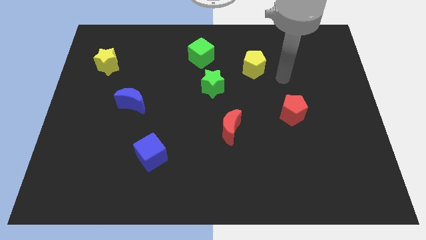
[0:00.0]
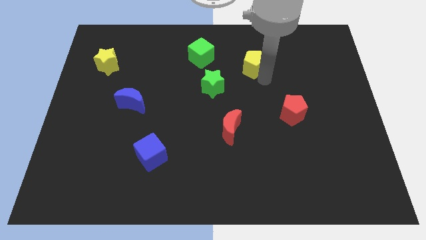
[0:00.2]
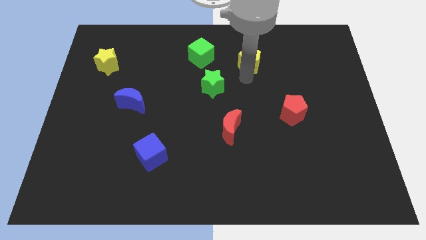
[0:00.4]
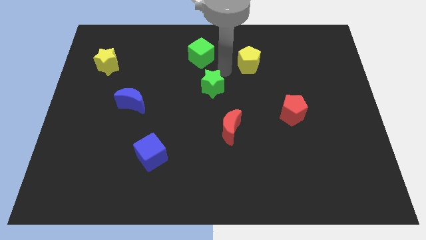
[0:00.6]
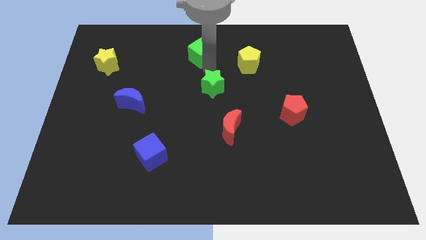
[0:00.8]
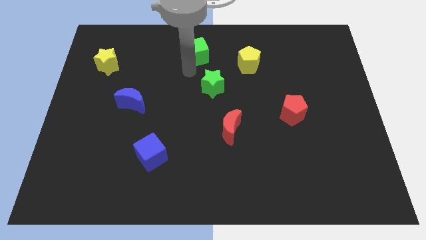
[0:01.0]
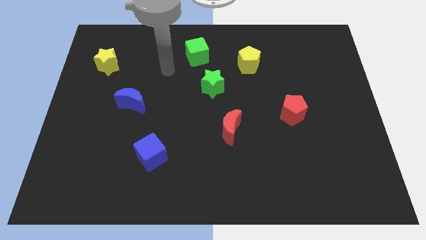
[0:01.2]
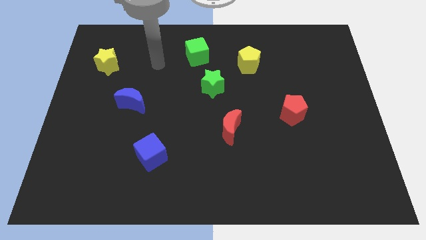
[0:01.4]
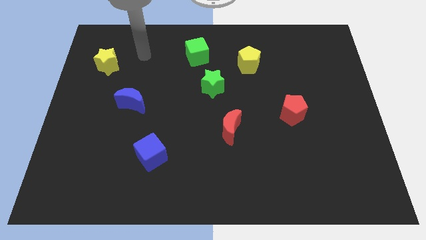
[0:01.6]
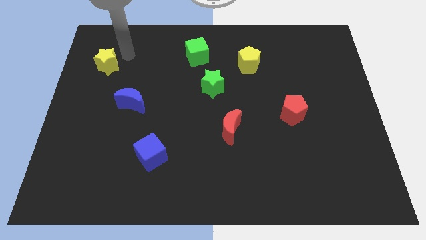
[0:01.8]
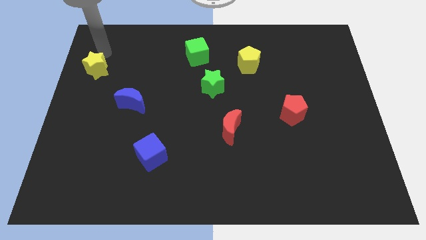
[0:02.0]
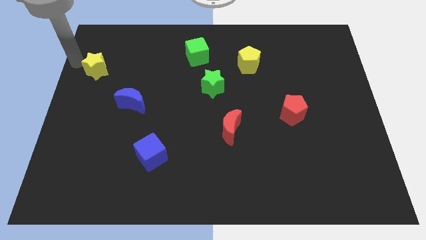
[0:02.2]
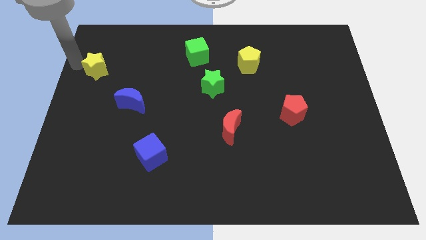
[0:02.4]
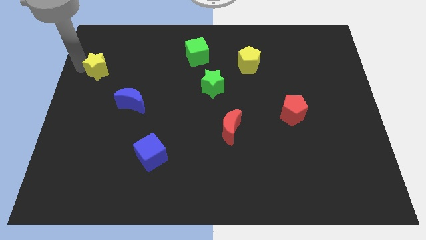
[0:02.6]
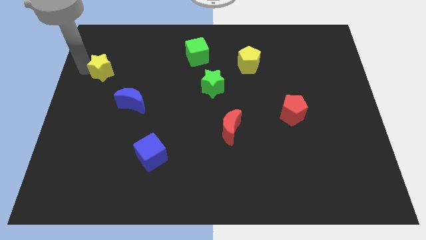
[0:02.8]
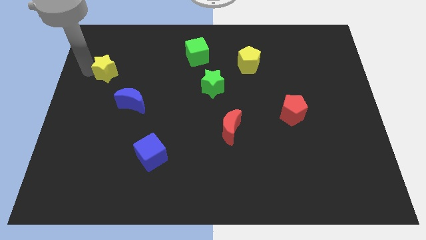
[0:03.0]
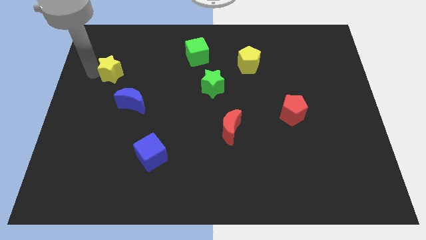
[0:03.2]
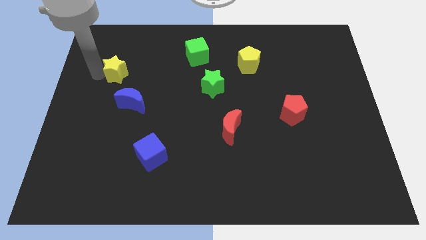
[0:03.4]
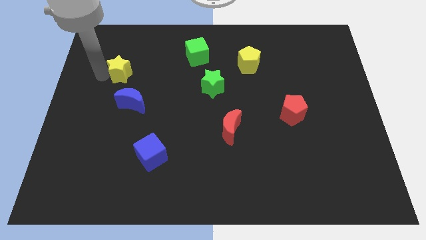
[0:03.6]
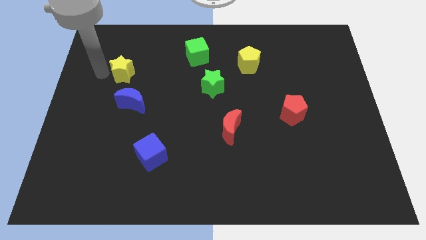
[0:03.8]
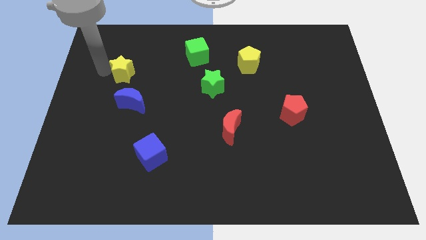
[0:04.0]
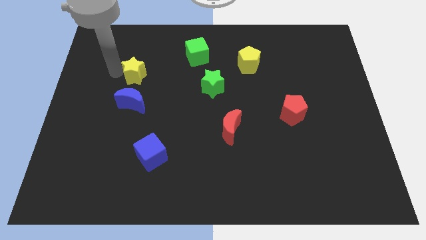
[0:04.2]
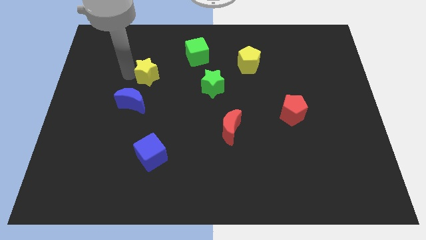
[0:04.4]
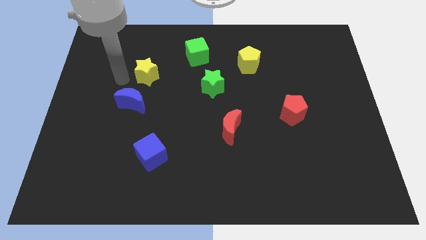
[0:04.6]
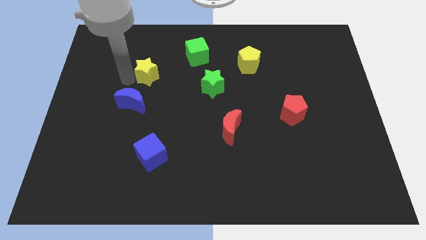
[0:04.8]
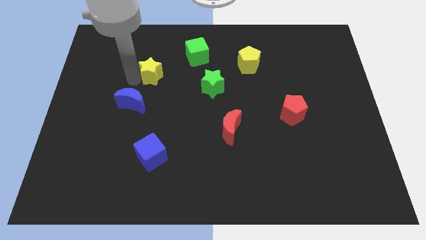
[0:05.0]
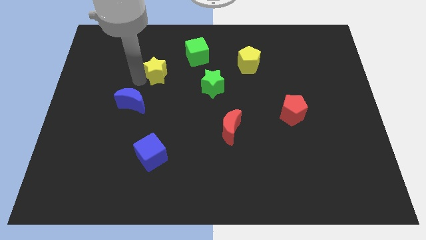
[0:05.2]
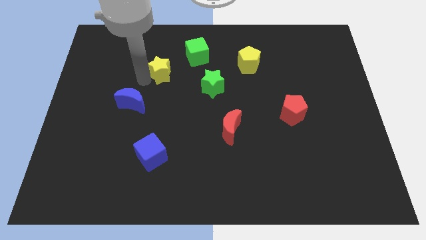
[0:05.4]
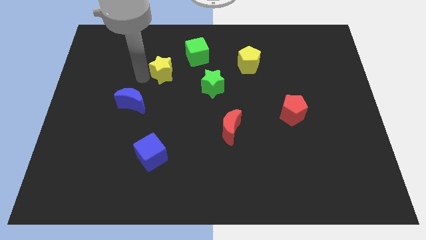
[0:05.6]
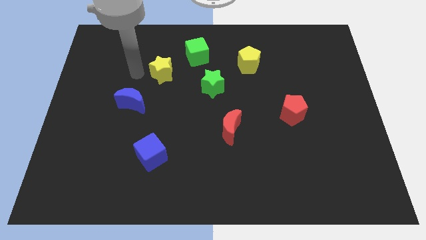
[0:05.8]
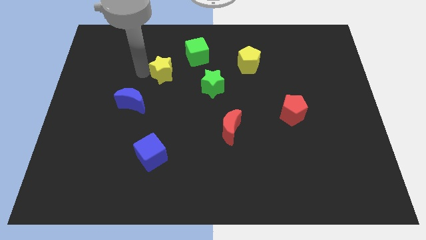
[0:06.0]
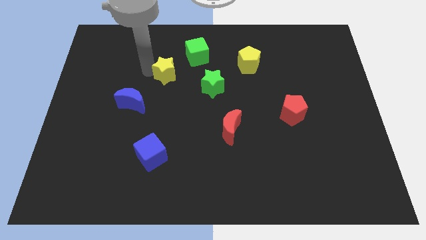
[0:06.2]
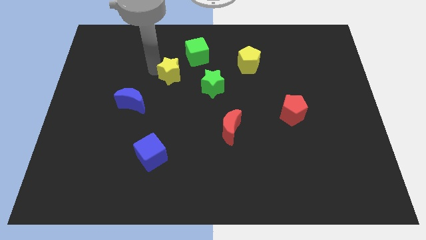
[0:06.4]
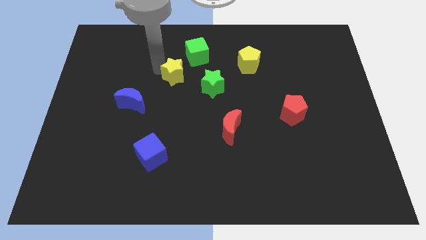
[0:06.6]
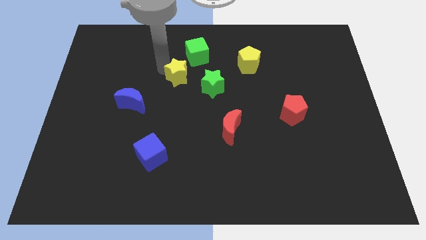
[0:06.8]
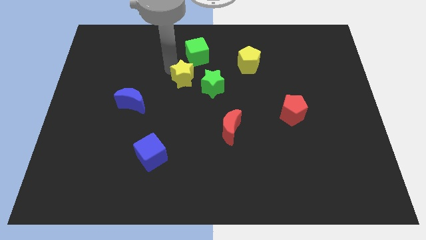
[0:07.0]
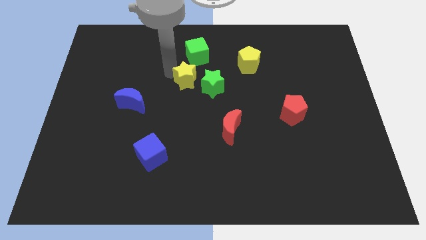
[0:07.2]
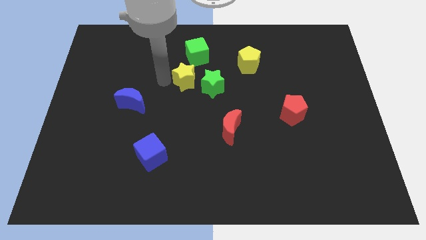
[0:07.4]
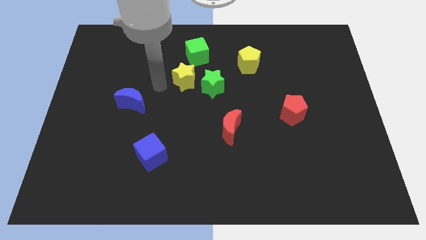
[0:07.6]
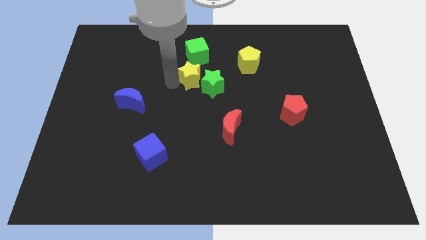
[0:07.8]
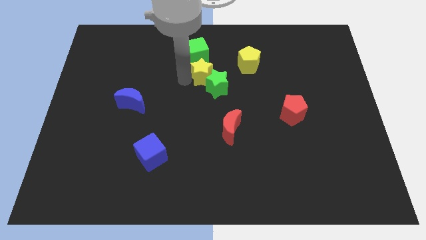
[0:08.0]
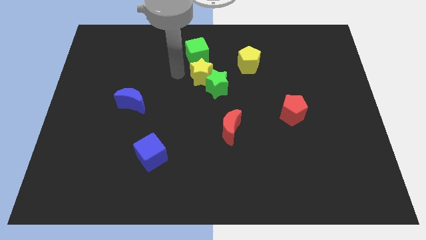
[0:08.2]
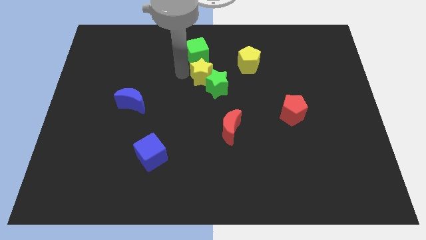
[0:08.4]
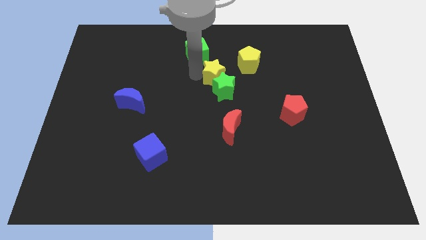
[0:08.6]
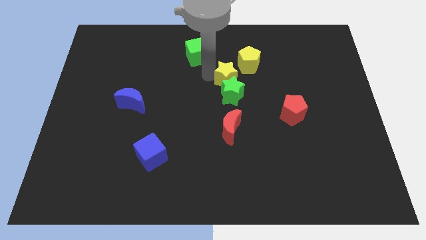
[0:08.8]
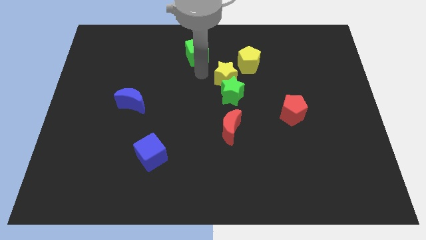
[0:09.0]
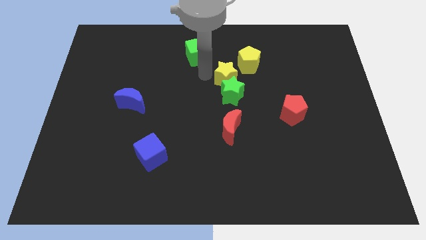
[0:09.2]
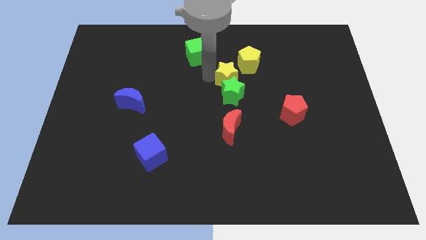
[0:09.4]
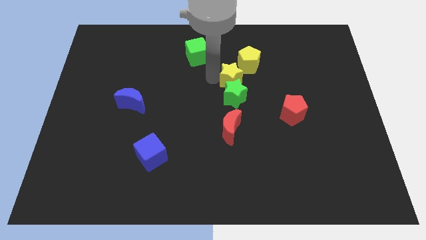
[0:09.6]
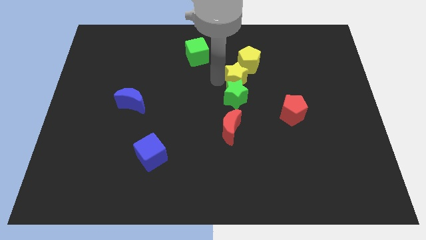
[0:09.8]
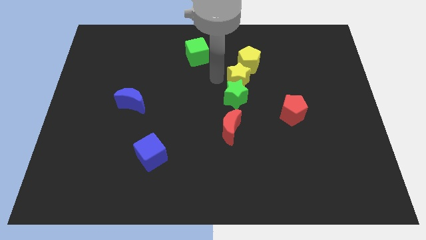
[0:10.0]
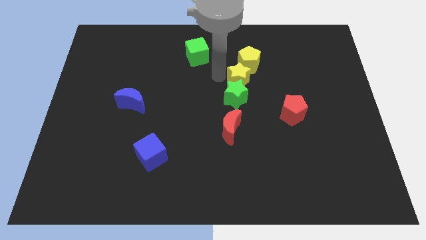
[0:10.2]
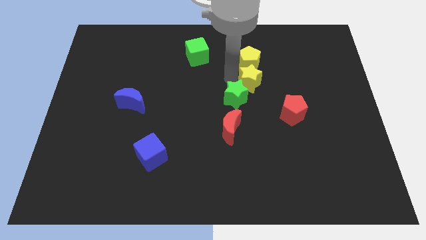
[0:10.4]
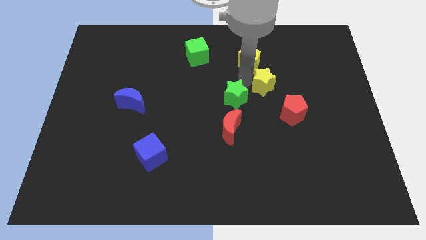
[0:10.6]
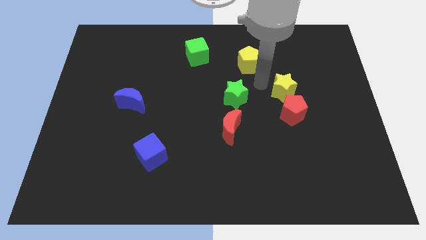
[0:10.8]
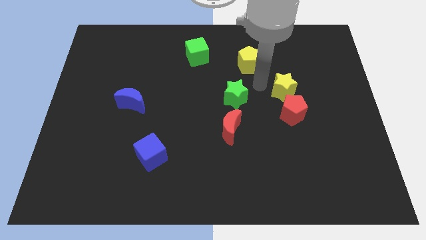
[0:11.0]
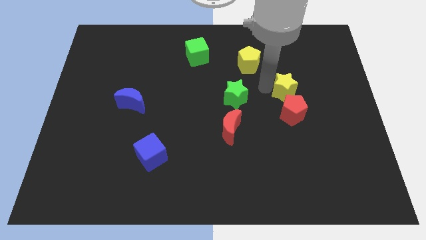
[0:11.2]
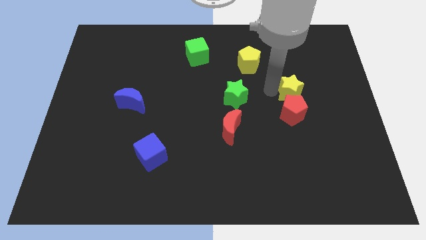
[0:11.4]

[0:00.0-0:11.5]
push the yellow star to the top right side of the red pentagon

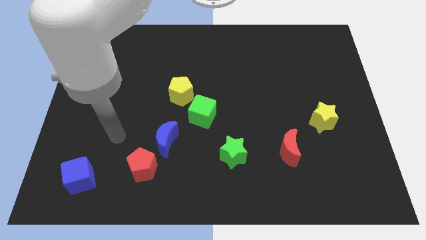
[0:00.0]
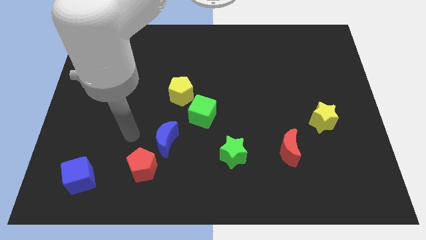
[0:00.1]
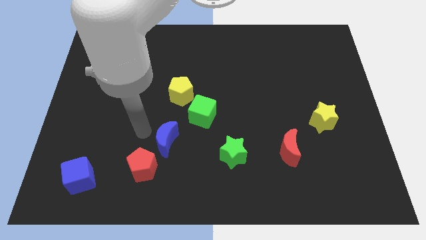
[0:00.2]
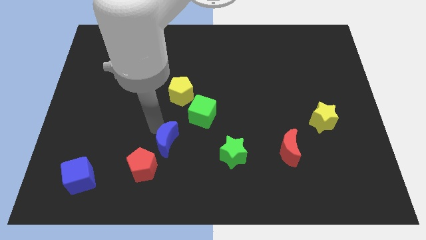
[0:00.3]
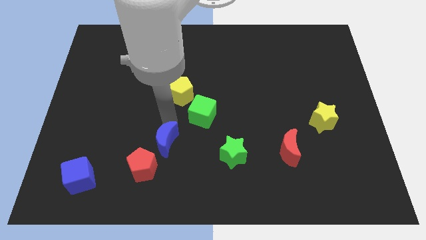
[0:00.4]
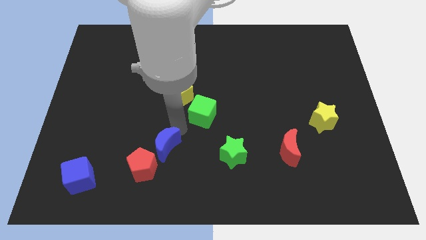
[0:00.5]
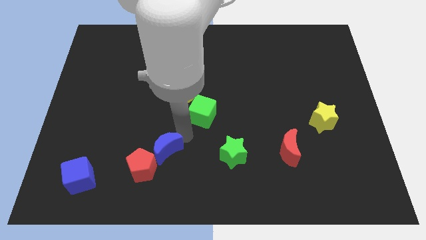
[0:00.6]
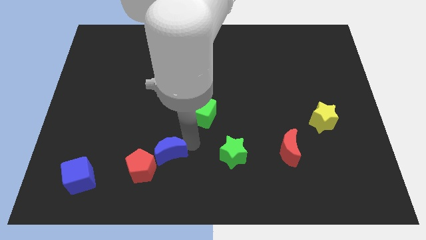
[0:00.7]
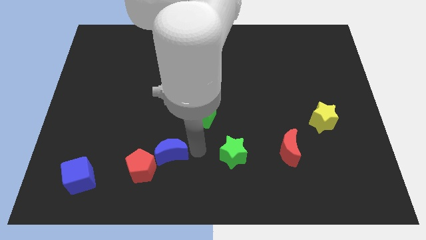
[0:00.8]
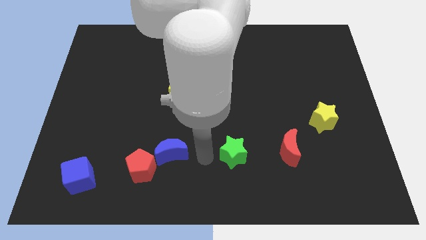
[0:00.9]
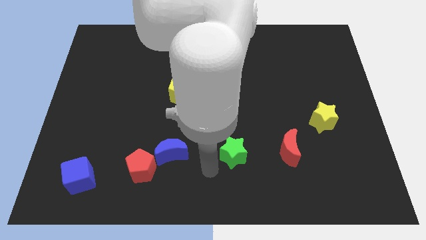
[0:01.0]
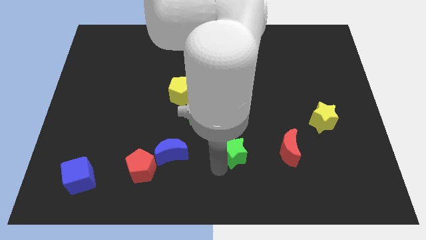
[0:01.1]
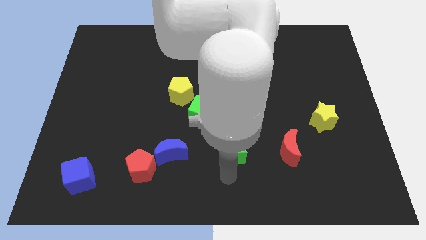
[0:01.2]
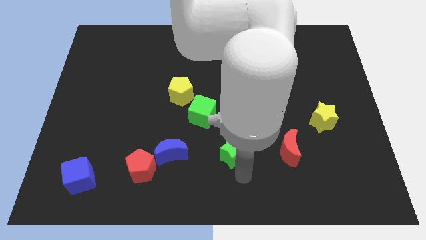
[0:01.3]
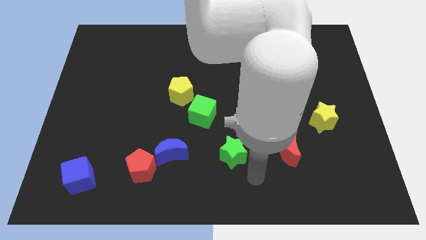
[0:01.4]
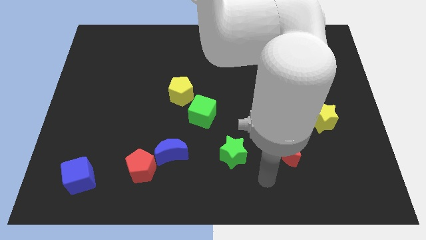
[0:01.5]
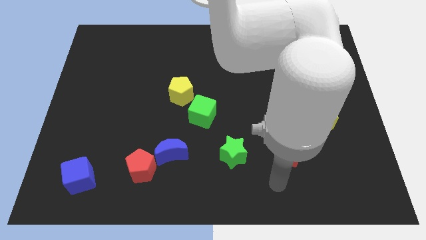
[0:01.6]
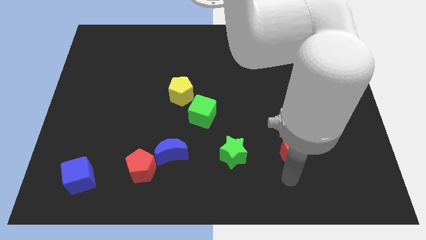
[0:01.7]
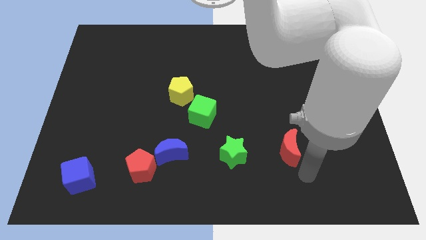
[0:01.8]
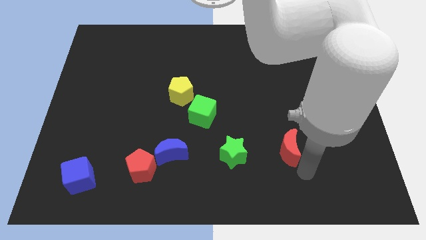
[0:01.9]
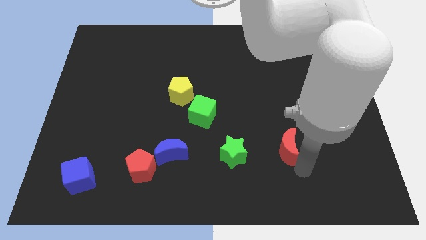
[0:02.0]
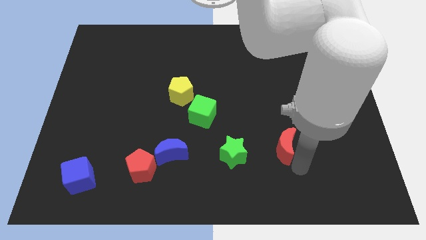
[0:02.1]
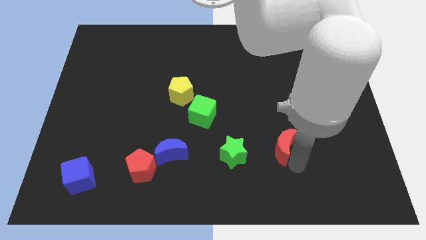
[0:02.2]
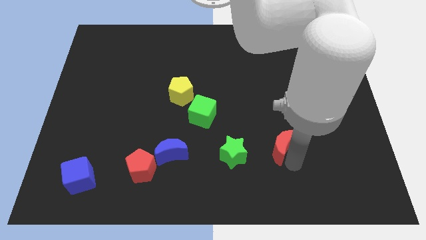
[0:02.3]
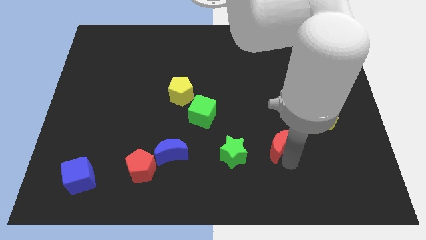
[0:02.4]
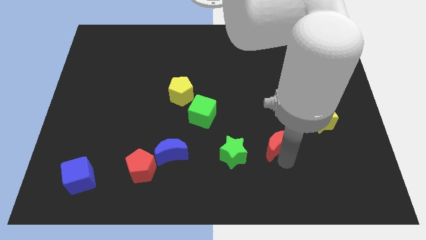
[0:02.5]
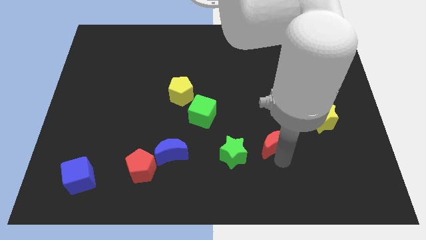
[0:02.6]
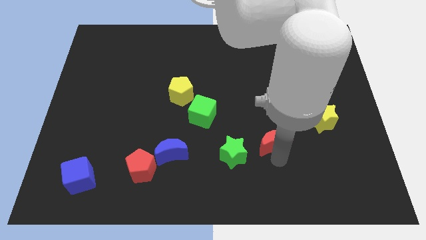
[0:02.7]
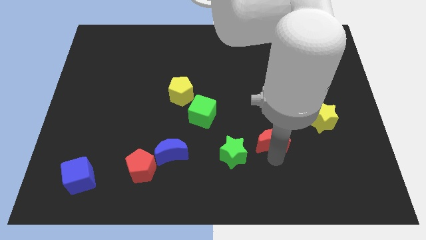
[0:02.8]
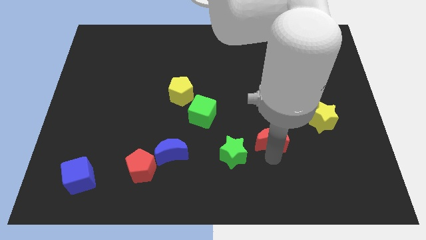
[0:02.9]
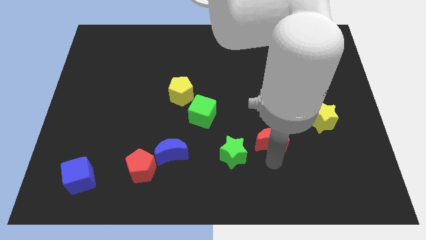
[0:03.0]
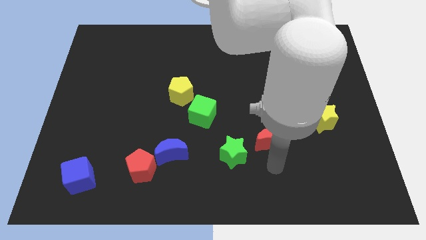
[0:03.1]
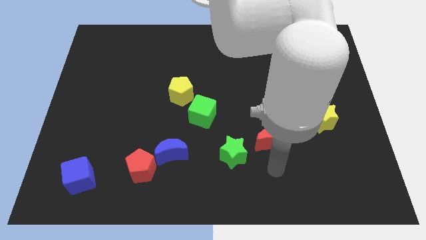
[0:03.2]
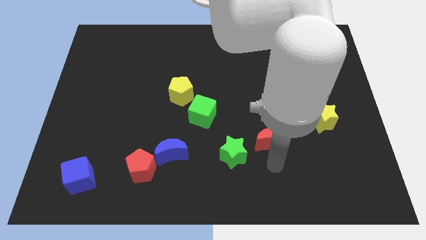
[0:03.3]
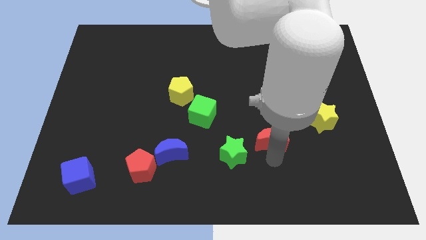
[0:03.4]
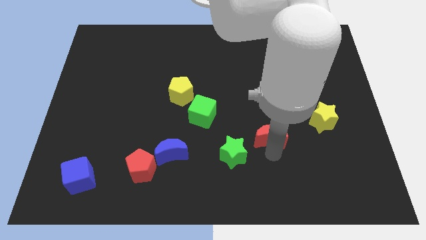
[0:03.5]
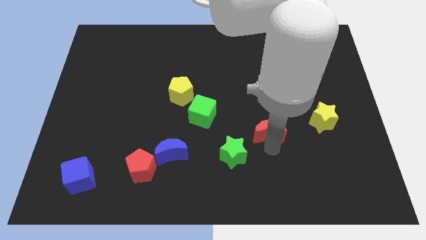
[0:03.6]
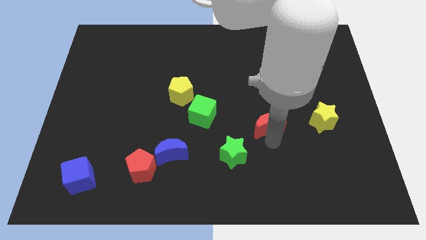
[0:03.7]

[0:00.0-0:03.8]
move the red moon just right of the green cube
